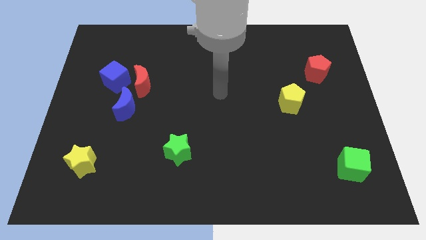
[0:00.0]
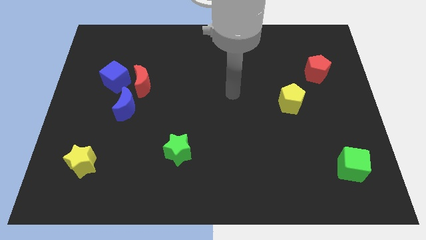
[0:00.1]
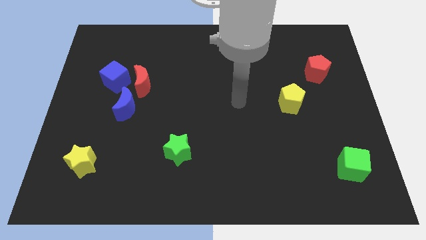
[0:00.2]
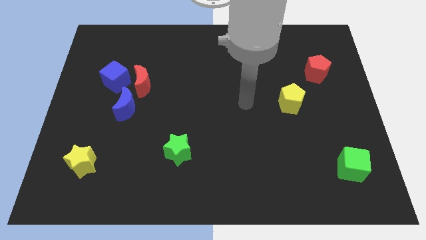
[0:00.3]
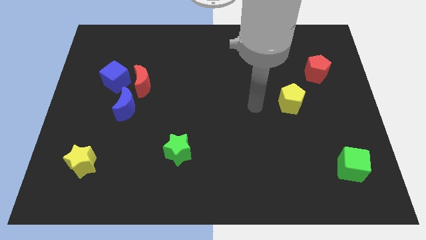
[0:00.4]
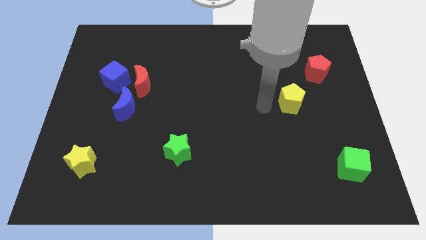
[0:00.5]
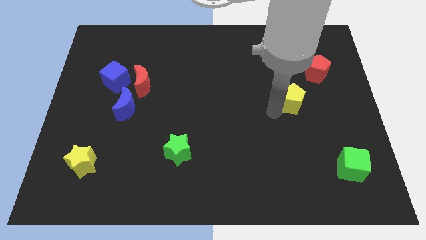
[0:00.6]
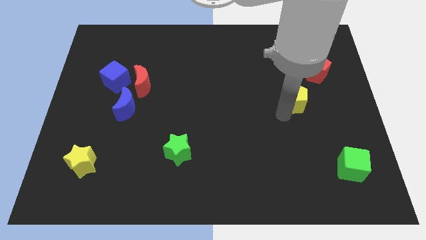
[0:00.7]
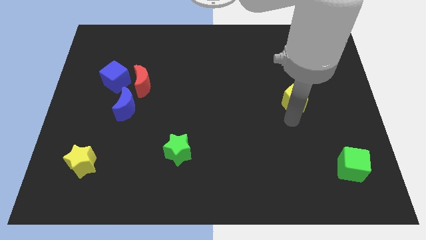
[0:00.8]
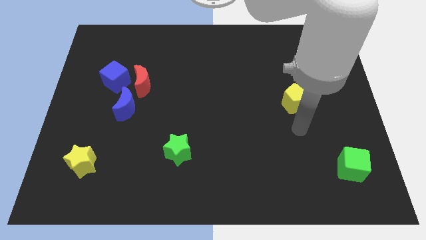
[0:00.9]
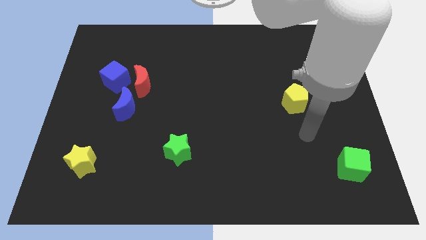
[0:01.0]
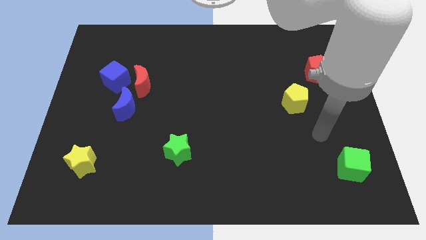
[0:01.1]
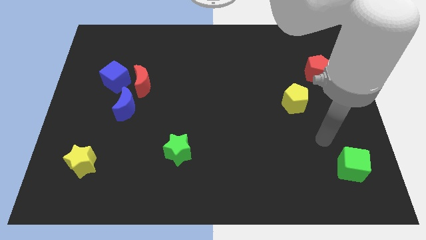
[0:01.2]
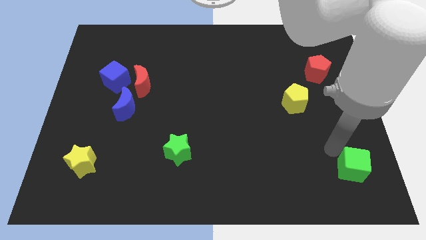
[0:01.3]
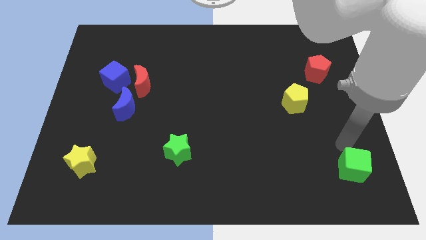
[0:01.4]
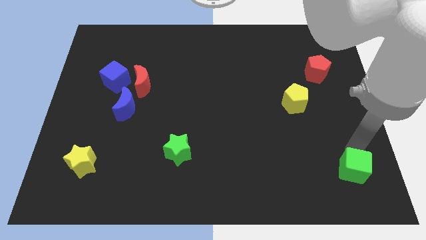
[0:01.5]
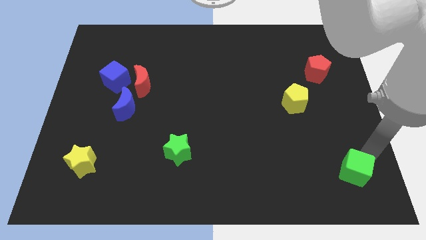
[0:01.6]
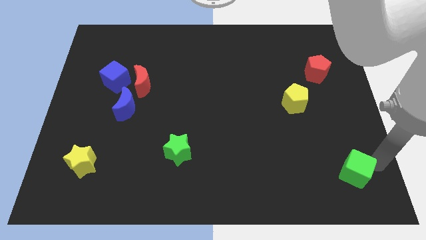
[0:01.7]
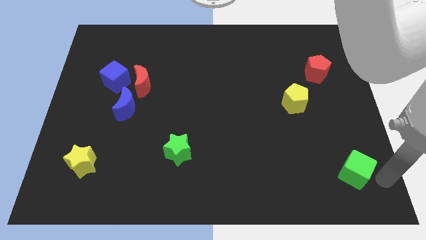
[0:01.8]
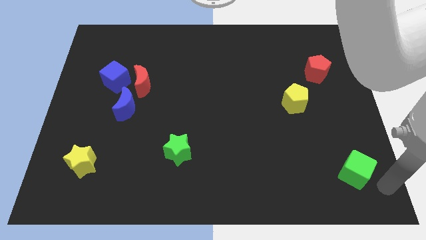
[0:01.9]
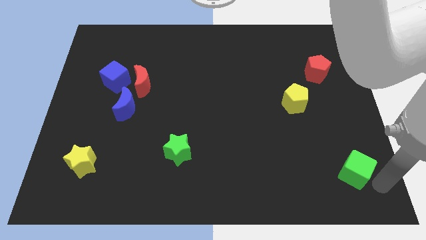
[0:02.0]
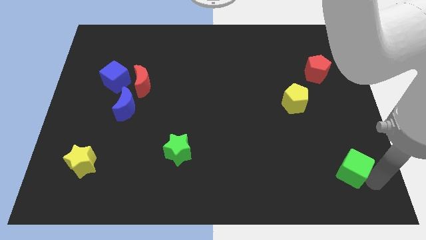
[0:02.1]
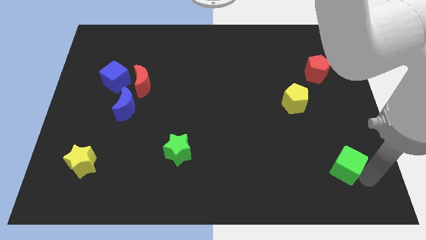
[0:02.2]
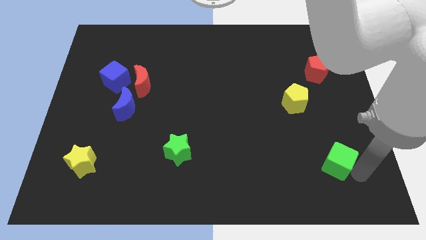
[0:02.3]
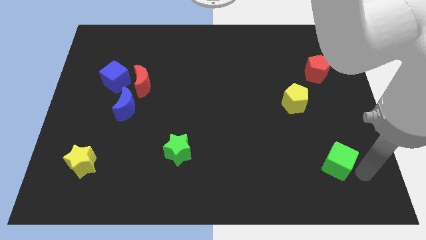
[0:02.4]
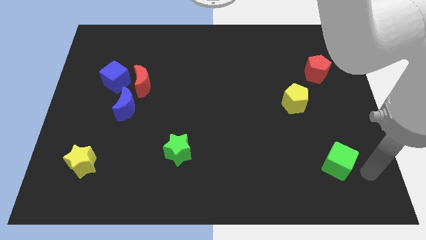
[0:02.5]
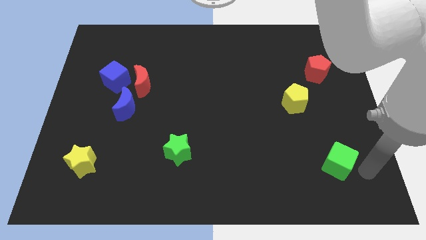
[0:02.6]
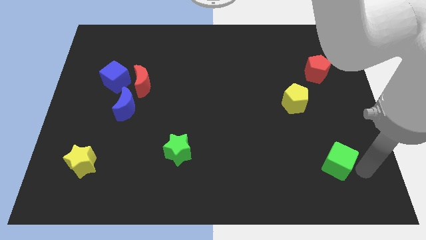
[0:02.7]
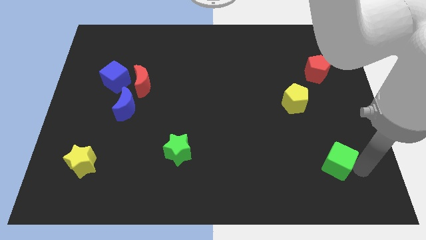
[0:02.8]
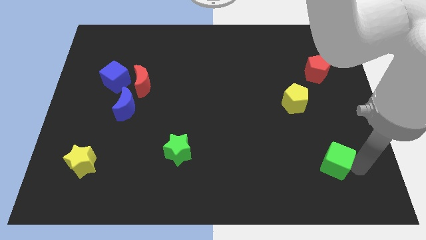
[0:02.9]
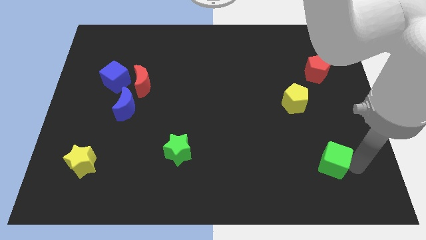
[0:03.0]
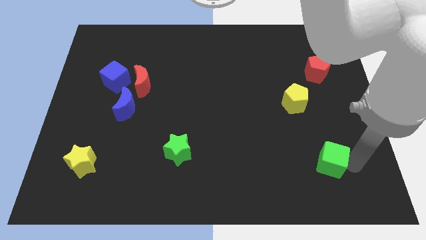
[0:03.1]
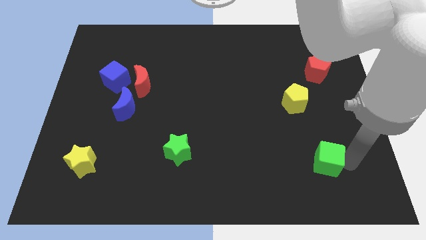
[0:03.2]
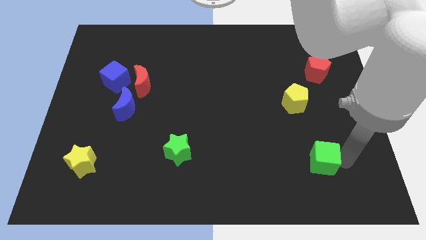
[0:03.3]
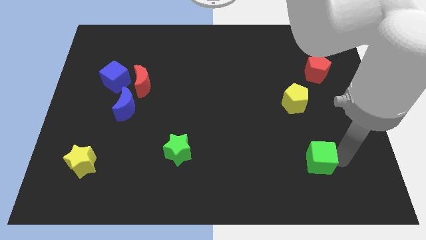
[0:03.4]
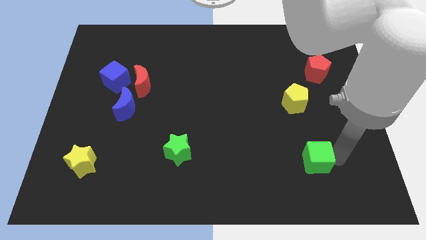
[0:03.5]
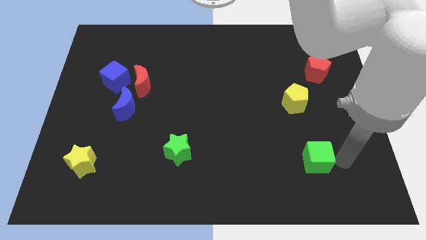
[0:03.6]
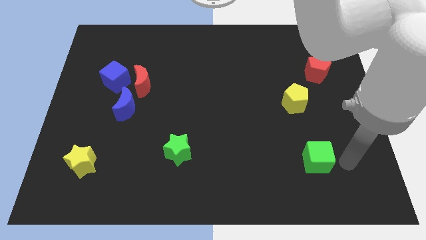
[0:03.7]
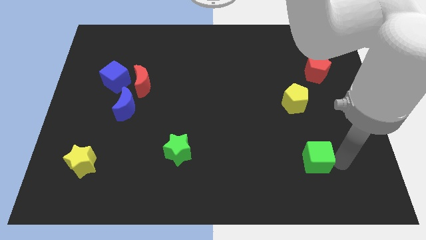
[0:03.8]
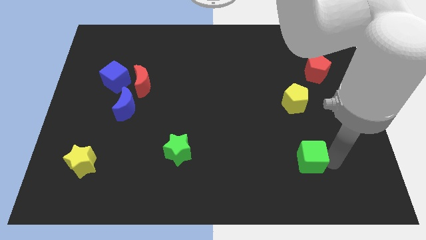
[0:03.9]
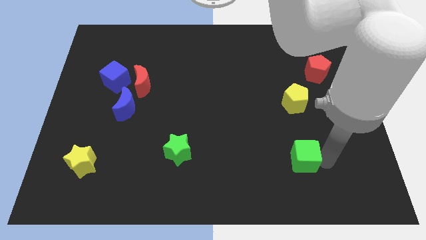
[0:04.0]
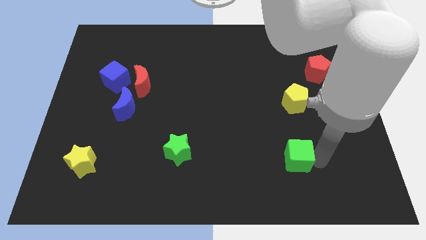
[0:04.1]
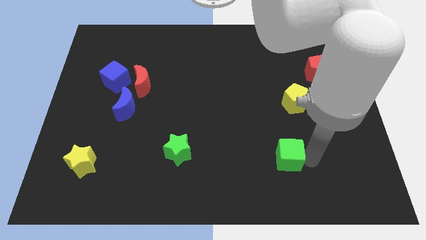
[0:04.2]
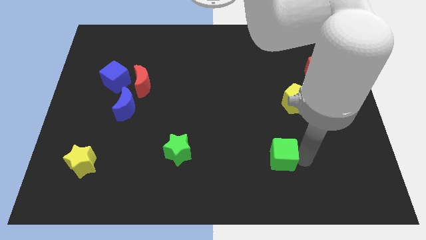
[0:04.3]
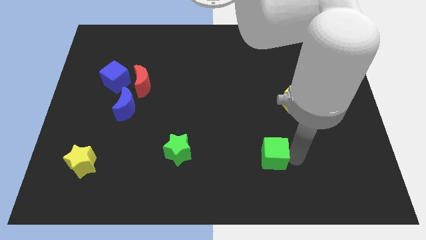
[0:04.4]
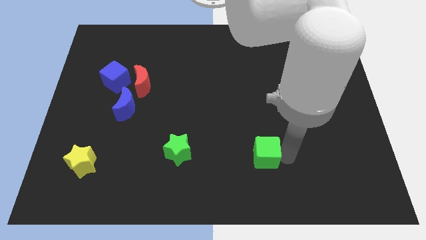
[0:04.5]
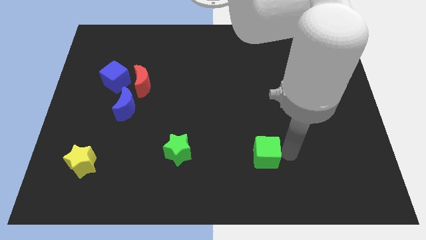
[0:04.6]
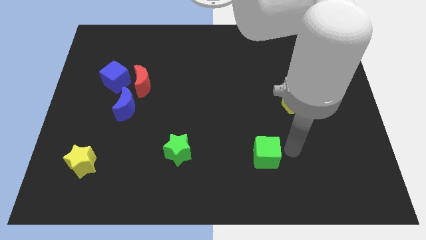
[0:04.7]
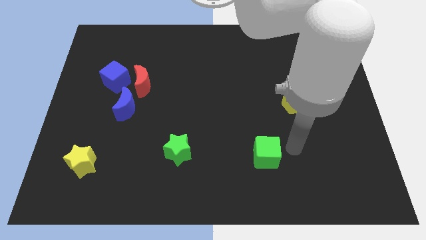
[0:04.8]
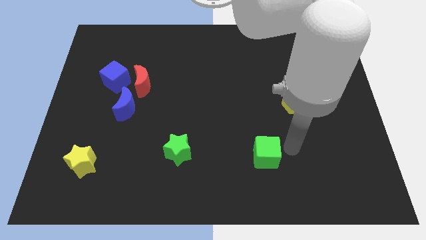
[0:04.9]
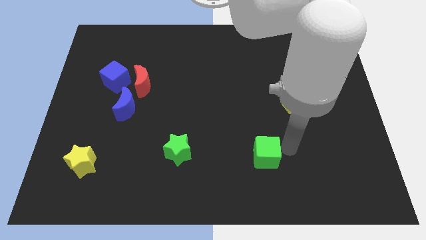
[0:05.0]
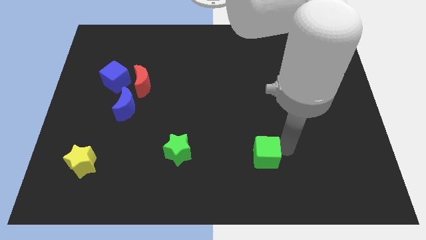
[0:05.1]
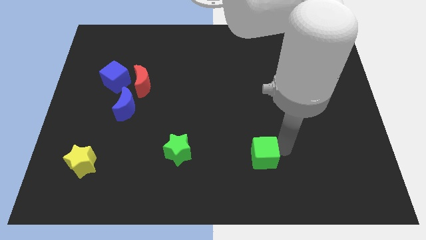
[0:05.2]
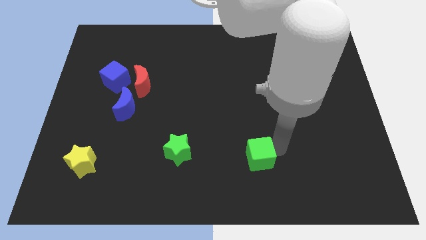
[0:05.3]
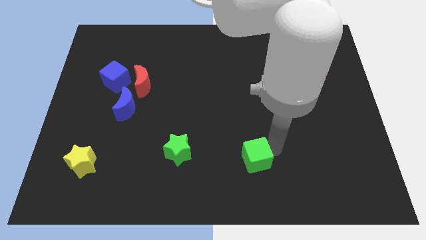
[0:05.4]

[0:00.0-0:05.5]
push the green cube left

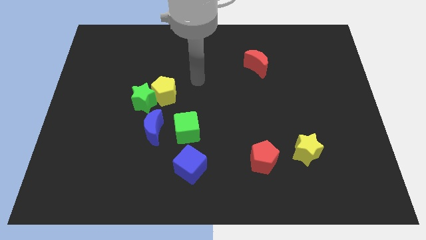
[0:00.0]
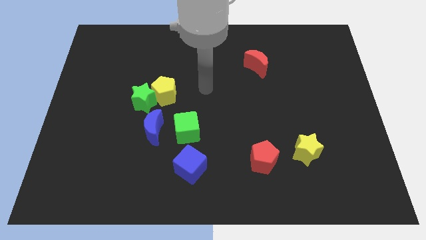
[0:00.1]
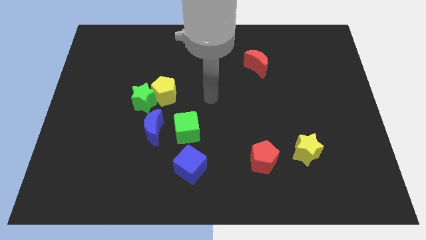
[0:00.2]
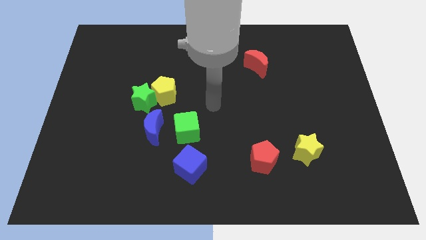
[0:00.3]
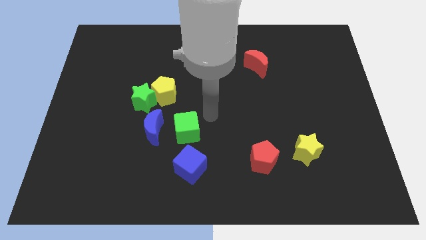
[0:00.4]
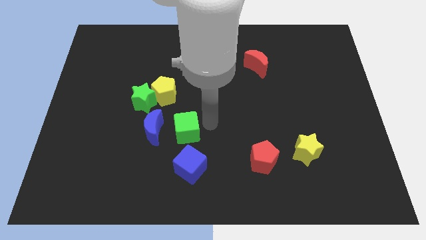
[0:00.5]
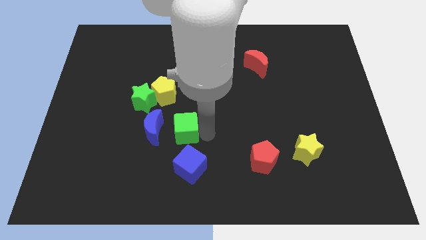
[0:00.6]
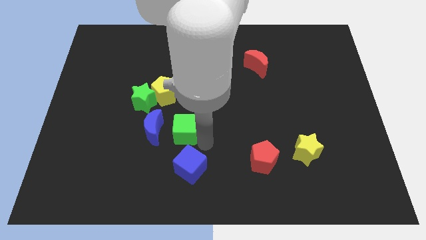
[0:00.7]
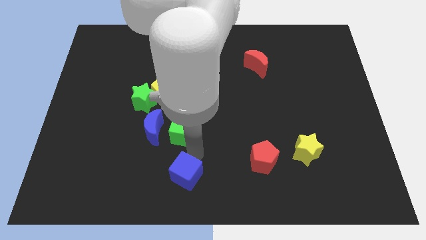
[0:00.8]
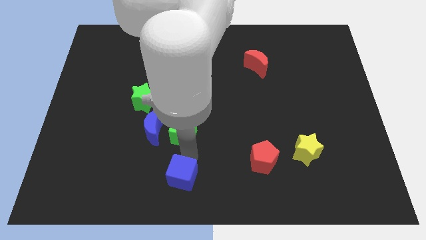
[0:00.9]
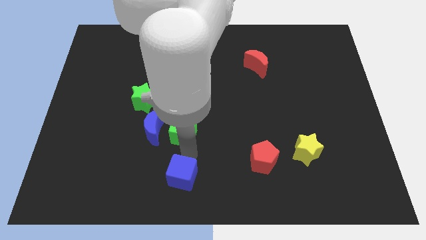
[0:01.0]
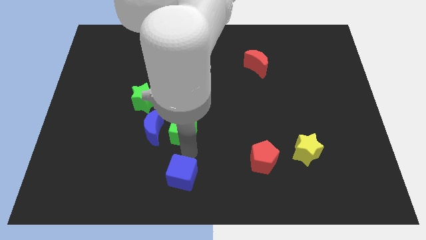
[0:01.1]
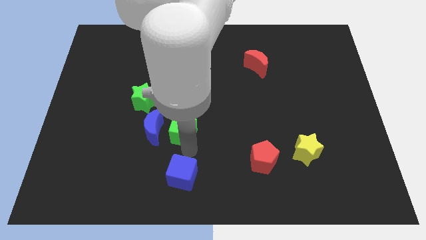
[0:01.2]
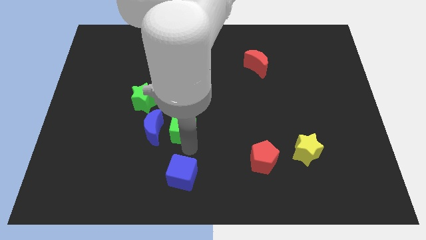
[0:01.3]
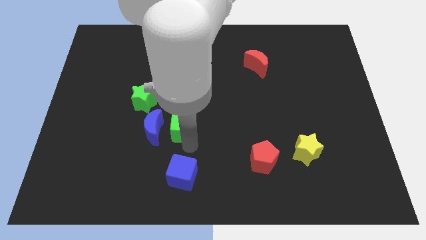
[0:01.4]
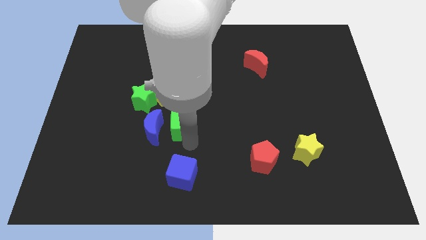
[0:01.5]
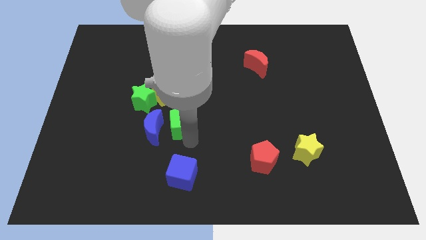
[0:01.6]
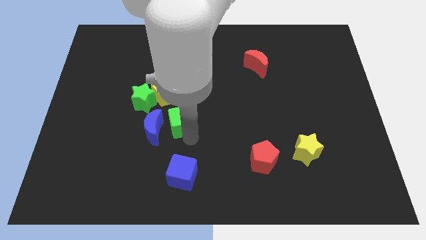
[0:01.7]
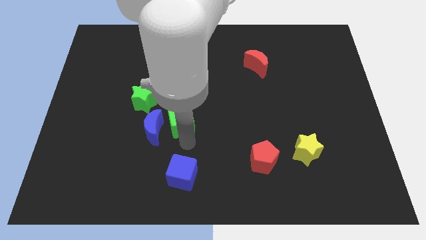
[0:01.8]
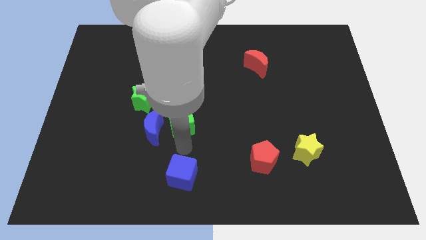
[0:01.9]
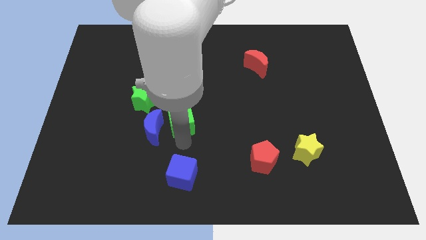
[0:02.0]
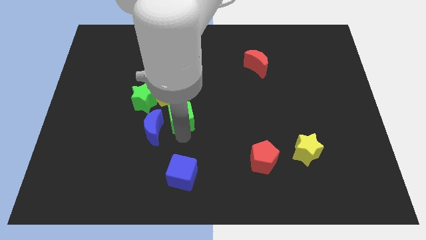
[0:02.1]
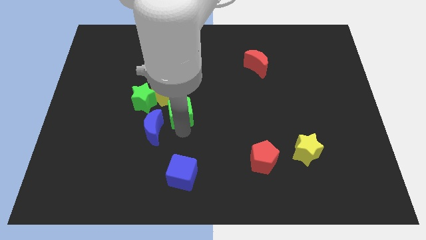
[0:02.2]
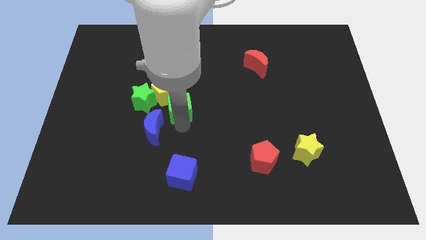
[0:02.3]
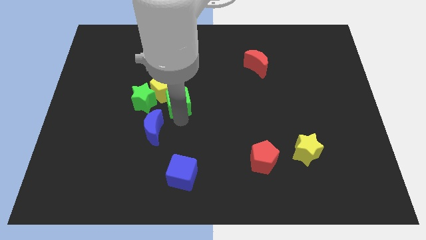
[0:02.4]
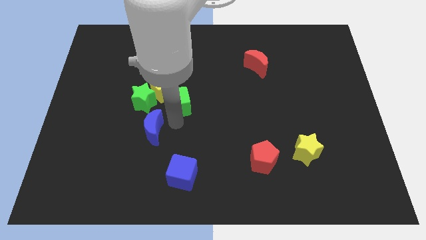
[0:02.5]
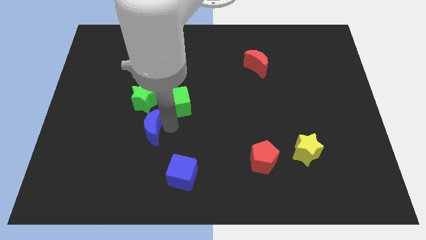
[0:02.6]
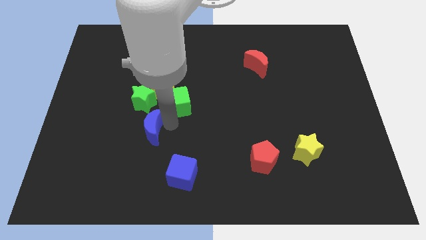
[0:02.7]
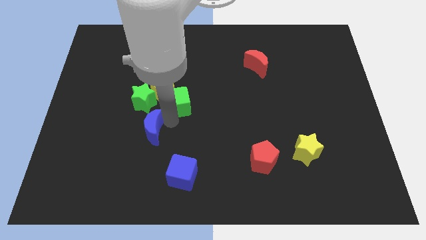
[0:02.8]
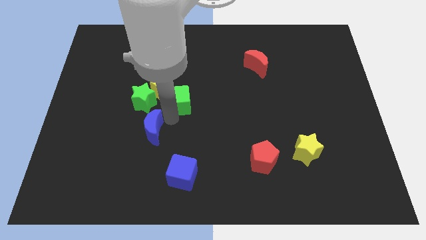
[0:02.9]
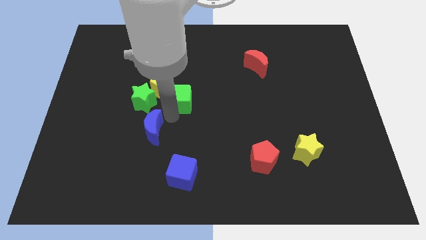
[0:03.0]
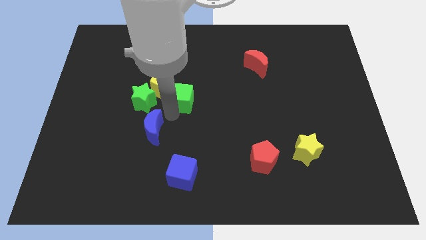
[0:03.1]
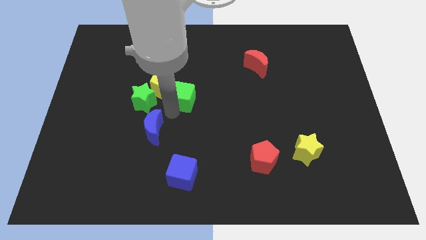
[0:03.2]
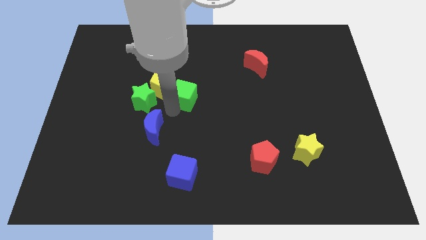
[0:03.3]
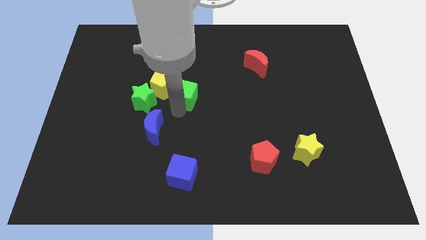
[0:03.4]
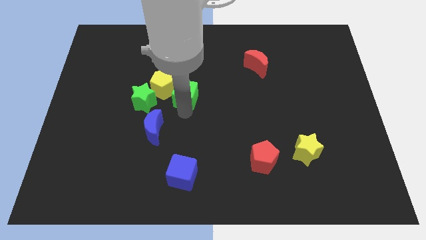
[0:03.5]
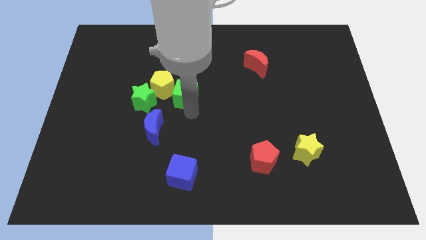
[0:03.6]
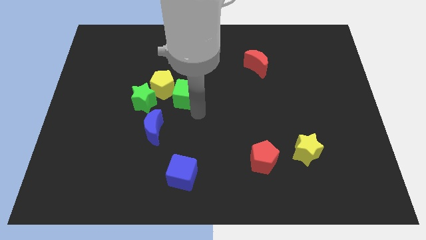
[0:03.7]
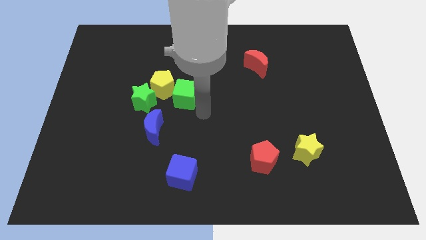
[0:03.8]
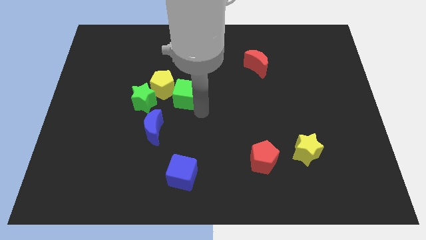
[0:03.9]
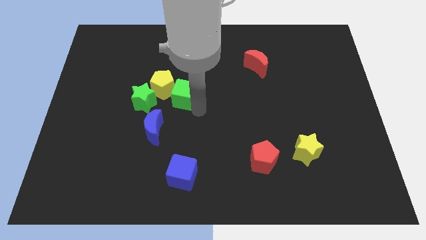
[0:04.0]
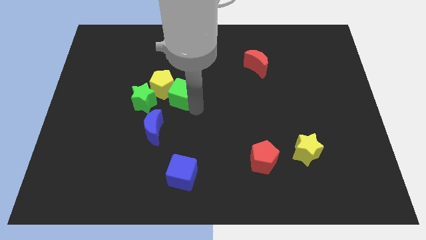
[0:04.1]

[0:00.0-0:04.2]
slide the green cube a little bit diagonally upwards and to the left
